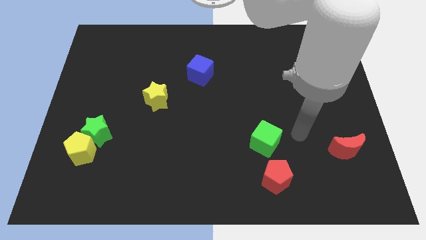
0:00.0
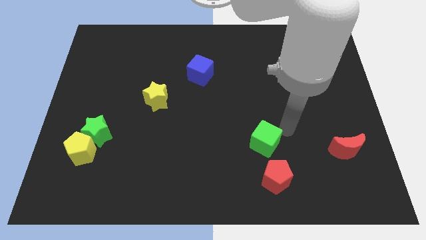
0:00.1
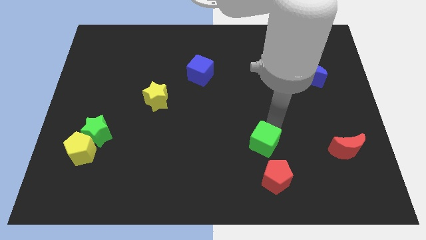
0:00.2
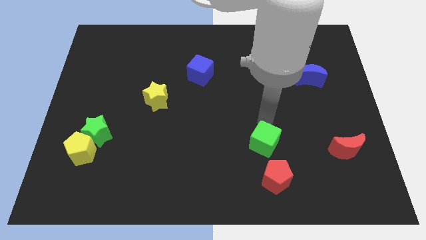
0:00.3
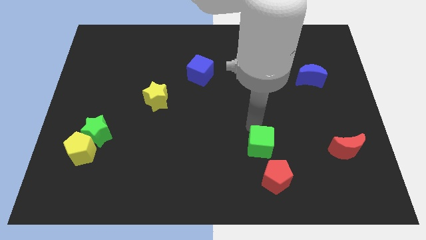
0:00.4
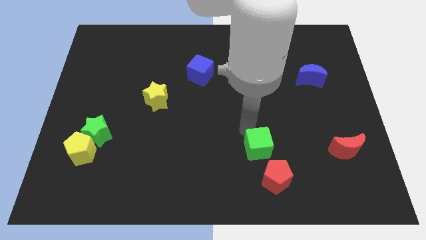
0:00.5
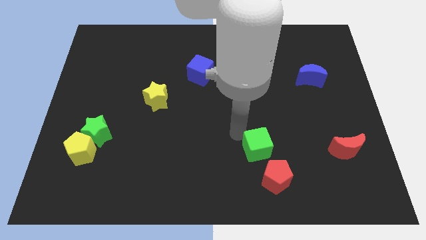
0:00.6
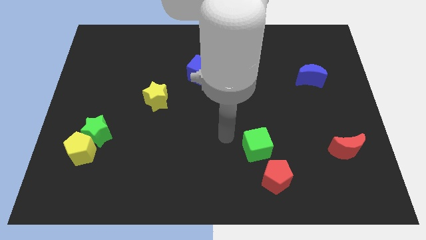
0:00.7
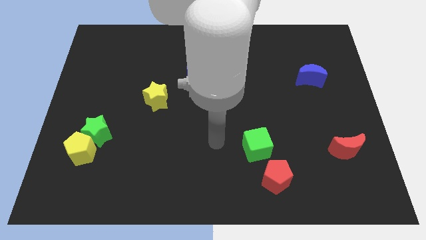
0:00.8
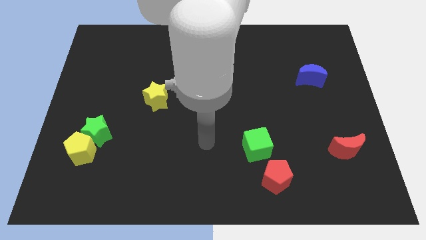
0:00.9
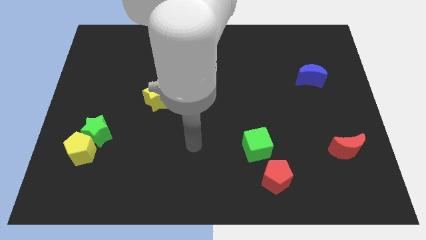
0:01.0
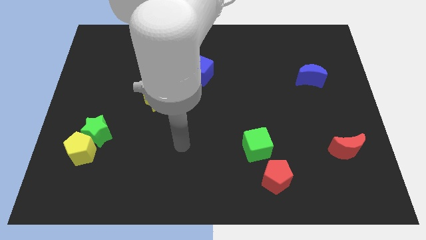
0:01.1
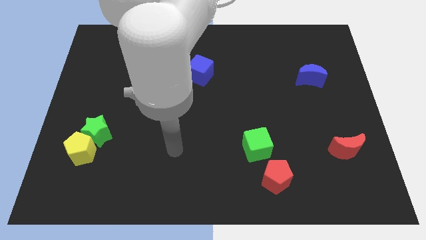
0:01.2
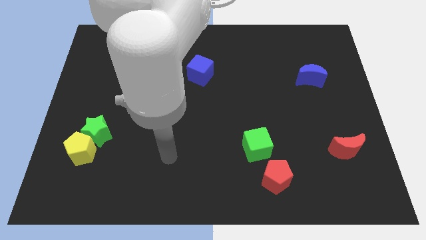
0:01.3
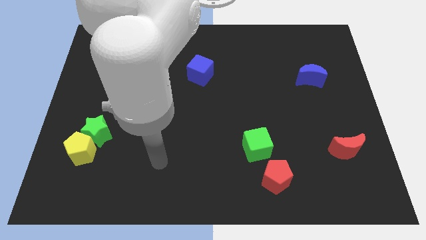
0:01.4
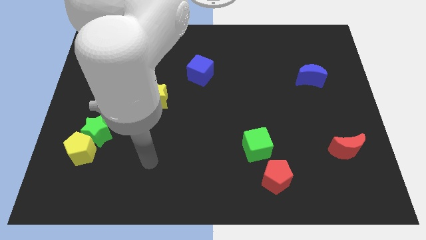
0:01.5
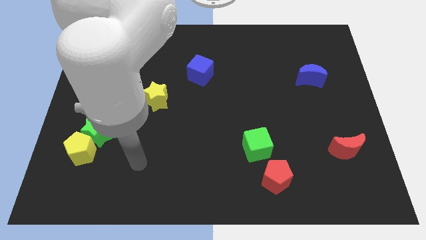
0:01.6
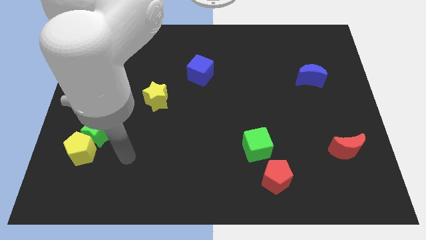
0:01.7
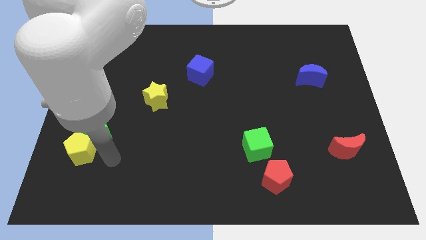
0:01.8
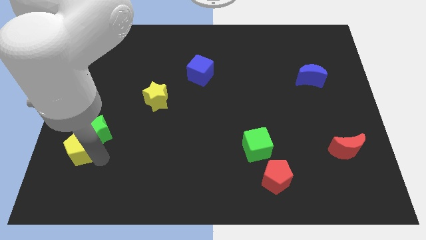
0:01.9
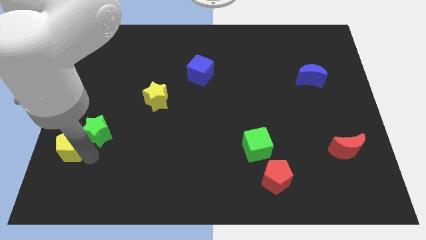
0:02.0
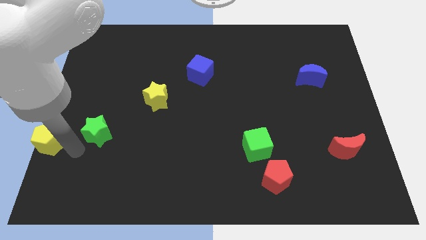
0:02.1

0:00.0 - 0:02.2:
pull the green star apart from the yellow pentagon

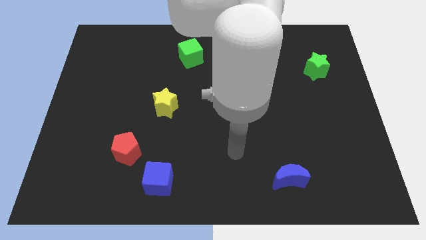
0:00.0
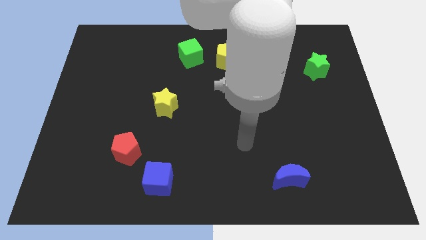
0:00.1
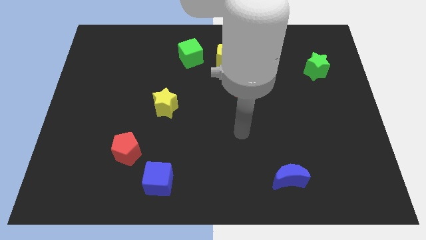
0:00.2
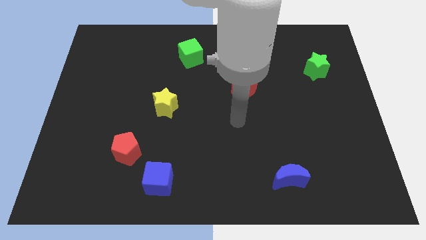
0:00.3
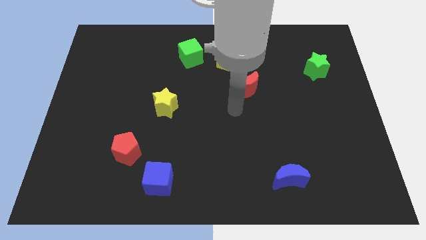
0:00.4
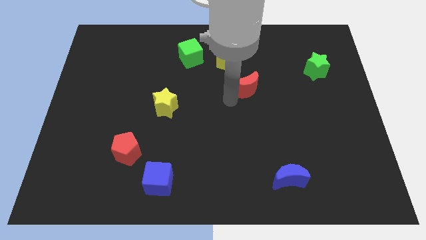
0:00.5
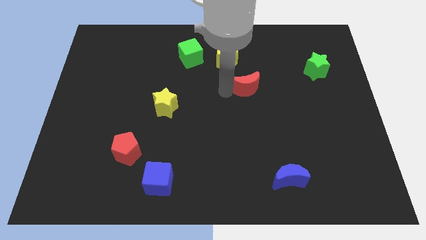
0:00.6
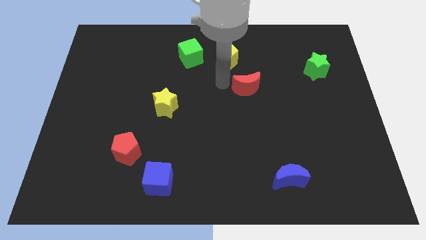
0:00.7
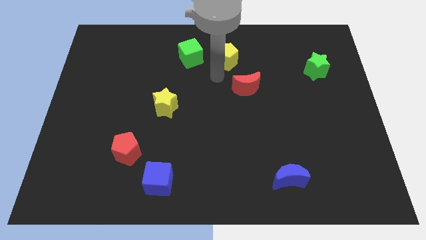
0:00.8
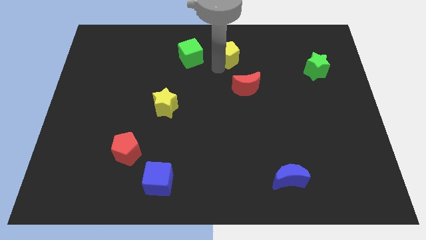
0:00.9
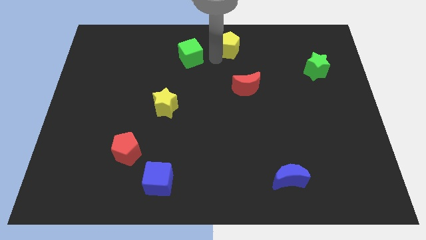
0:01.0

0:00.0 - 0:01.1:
move the green cube away from the yellow pentagon

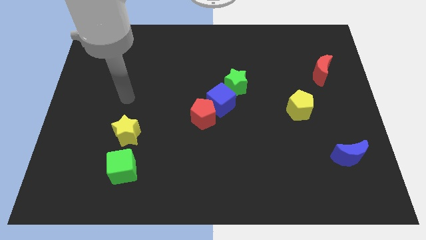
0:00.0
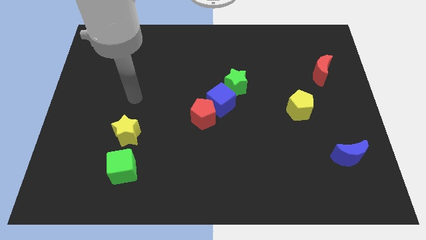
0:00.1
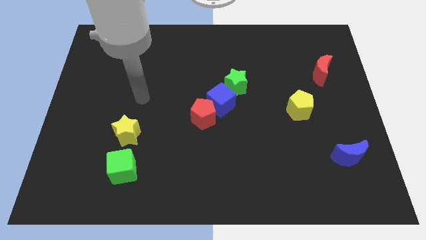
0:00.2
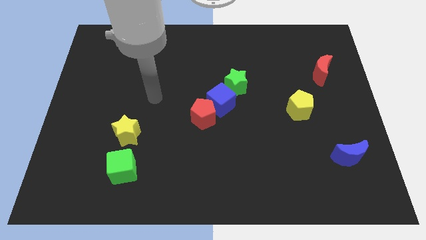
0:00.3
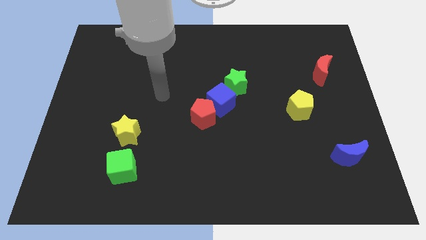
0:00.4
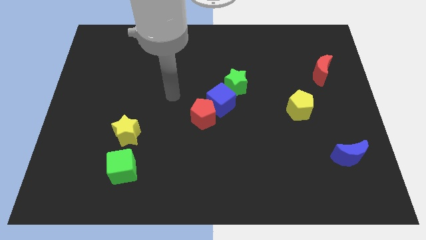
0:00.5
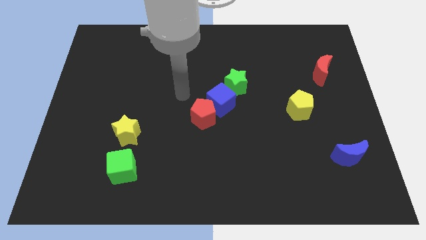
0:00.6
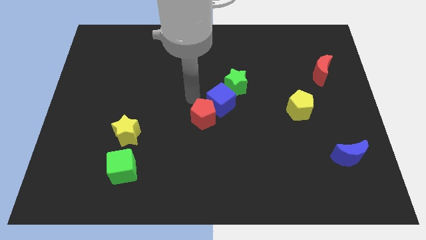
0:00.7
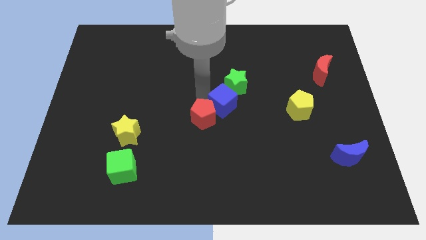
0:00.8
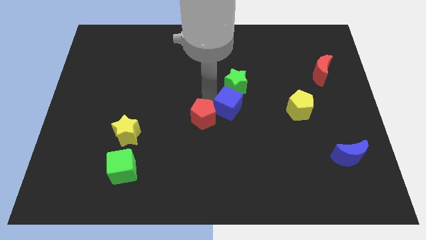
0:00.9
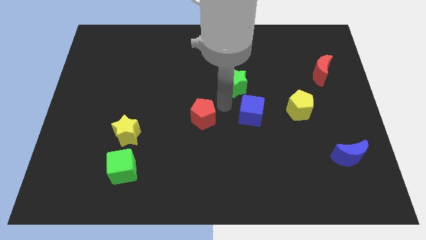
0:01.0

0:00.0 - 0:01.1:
move the red pentagon away from the blue cube

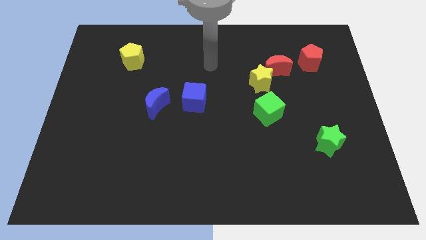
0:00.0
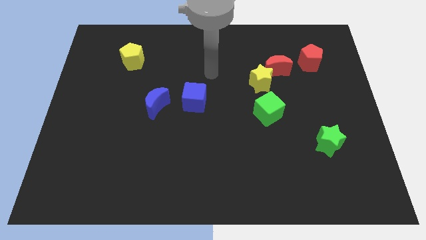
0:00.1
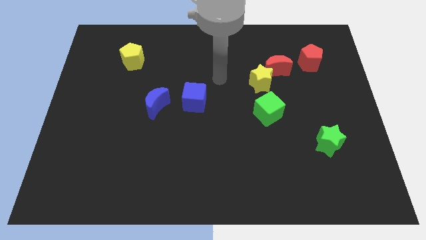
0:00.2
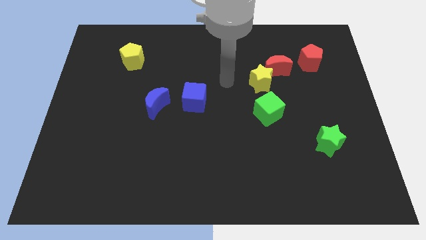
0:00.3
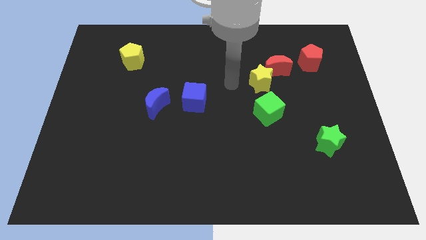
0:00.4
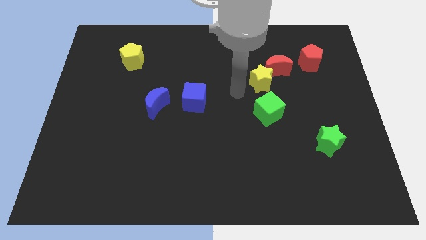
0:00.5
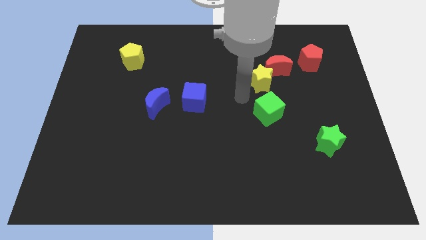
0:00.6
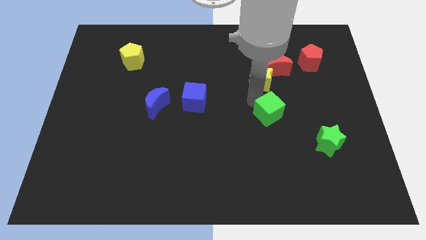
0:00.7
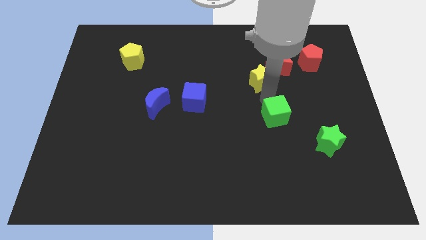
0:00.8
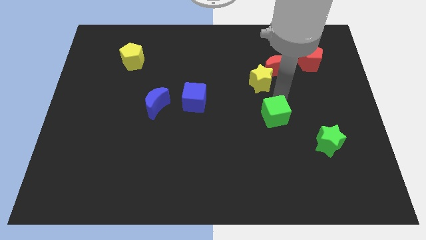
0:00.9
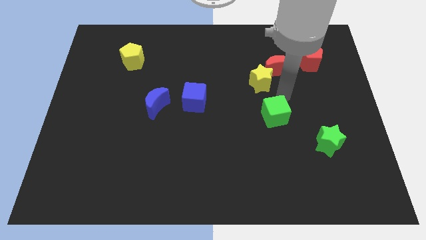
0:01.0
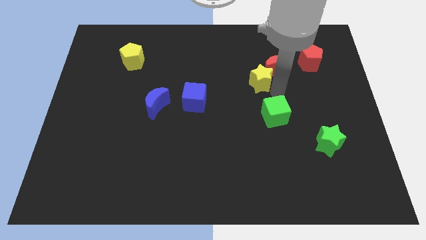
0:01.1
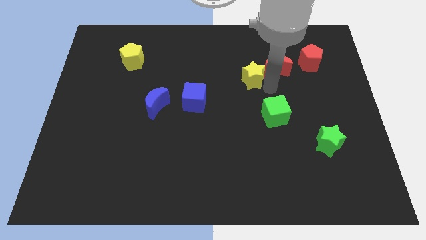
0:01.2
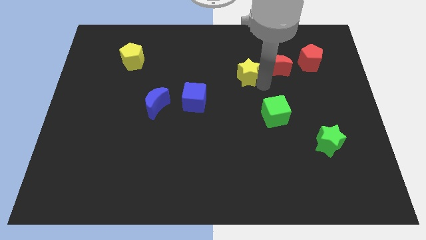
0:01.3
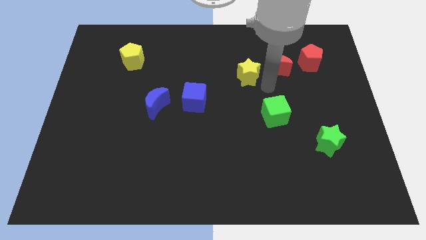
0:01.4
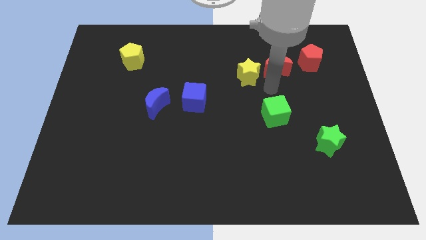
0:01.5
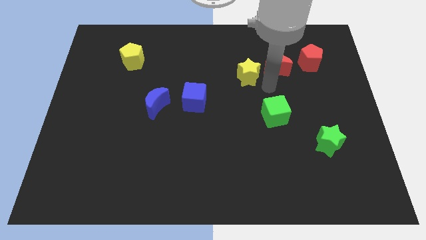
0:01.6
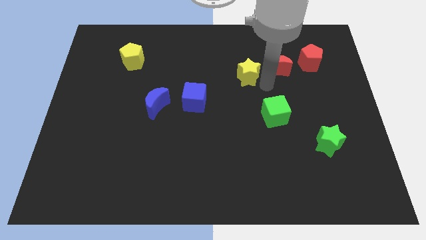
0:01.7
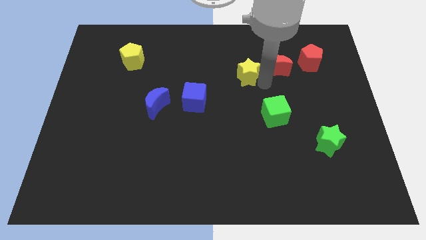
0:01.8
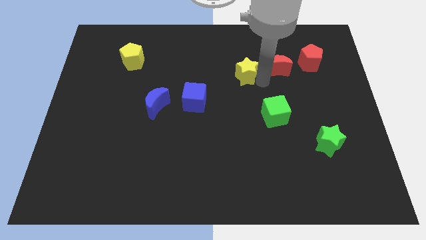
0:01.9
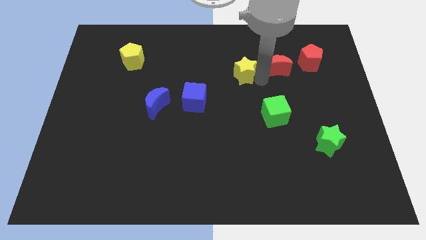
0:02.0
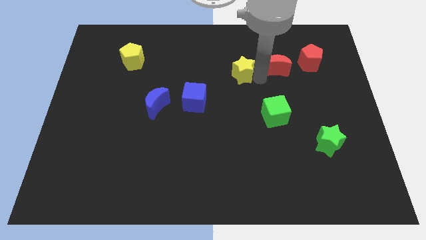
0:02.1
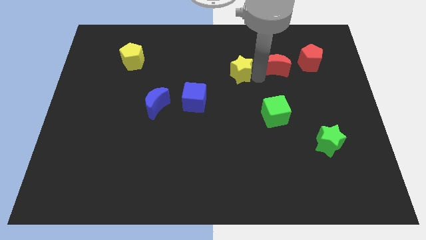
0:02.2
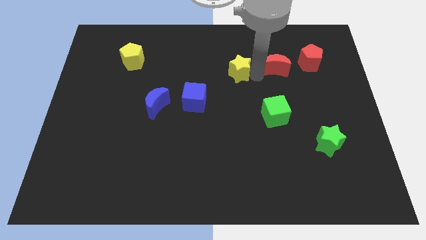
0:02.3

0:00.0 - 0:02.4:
move the yellow star away from the red moon and green cube

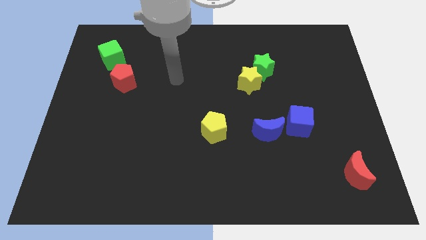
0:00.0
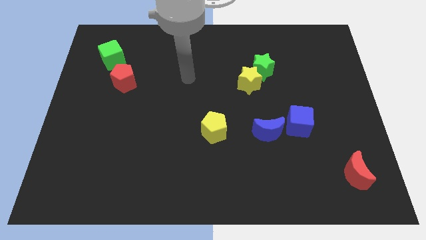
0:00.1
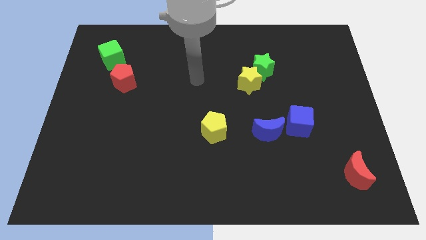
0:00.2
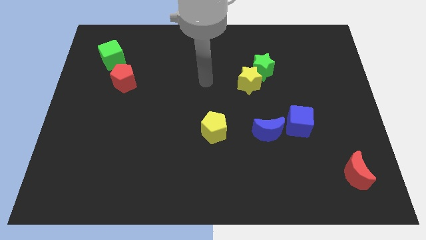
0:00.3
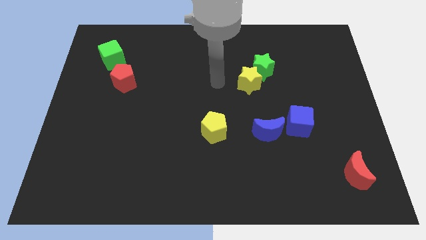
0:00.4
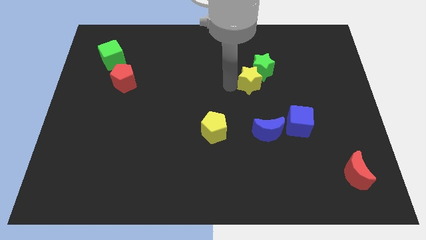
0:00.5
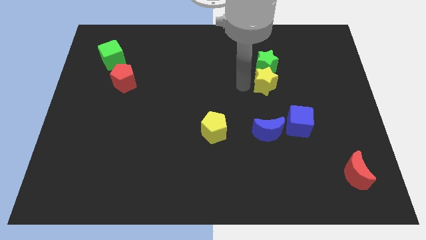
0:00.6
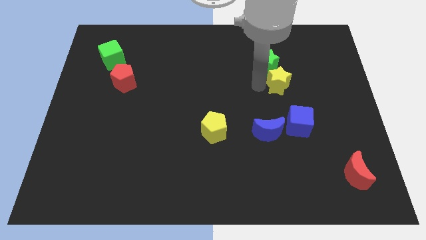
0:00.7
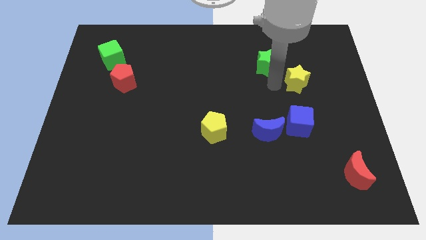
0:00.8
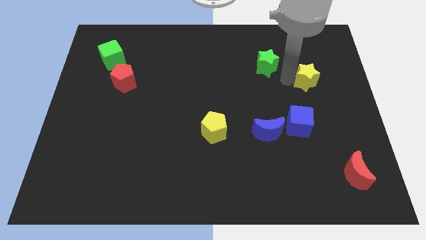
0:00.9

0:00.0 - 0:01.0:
move the green star away from the yellow star

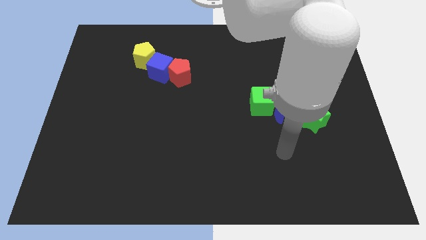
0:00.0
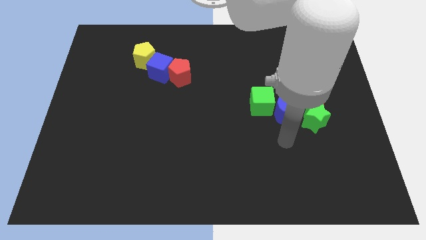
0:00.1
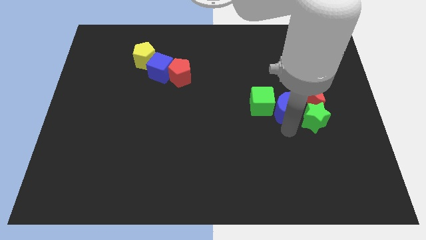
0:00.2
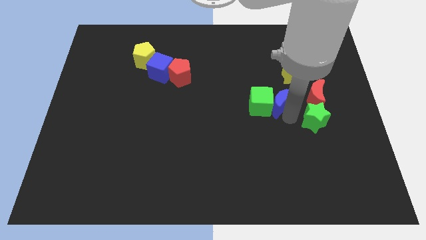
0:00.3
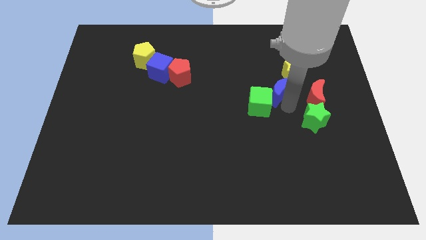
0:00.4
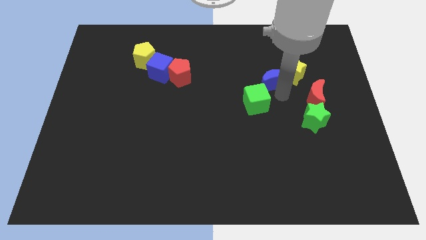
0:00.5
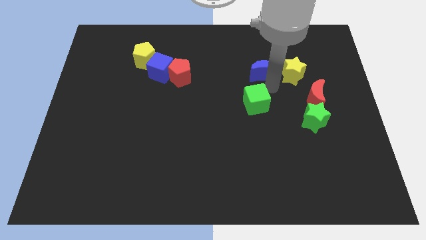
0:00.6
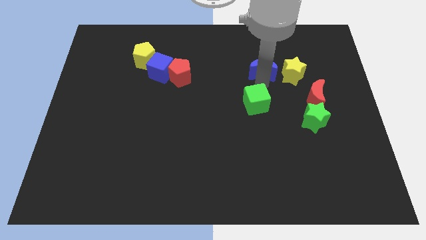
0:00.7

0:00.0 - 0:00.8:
separate the green cube from the blue moon

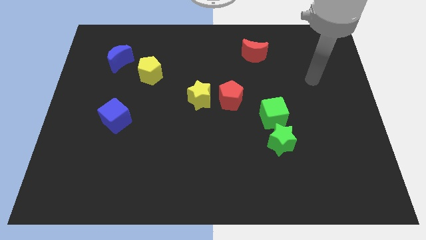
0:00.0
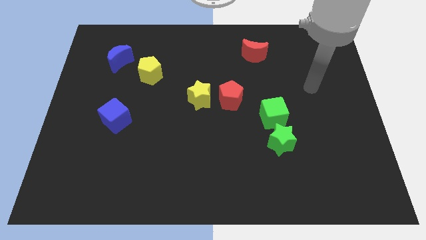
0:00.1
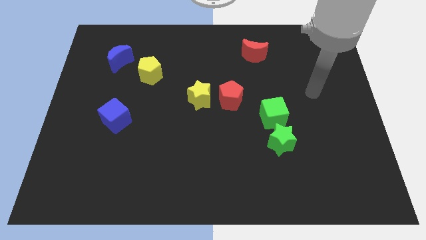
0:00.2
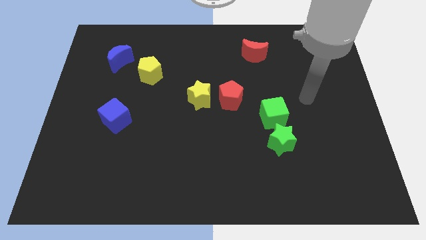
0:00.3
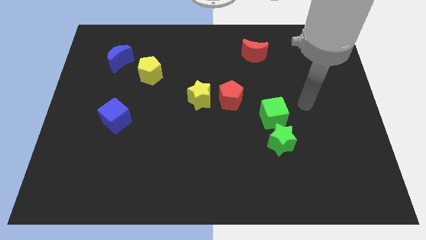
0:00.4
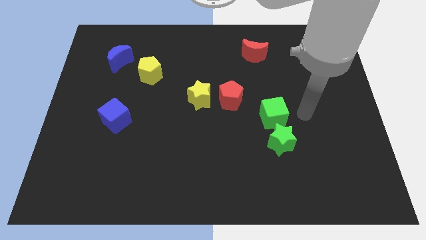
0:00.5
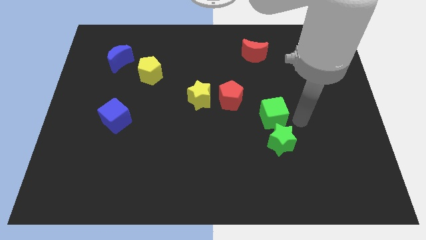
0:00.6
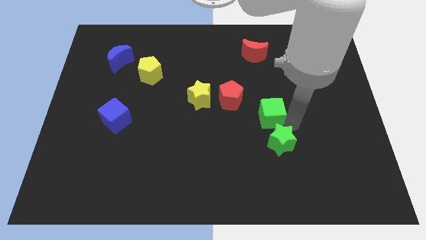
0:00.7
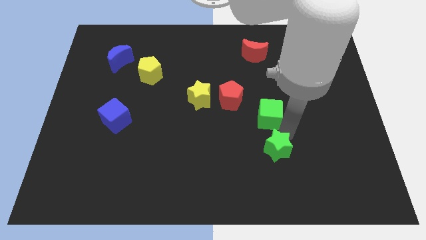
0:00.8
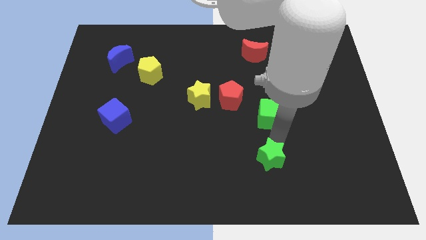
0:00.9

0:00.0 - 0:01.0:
separate the green cube from the green star
